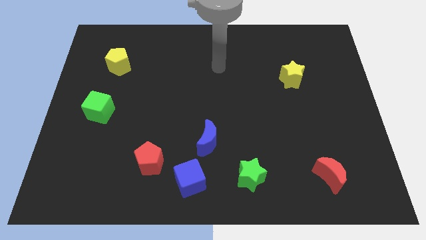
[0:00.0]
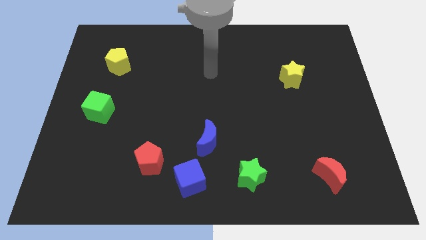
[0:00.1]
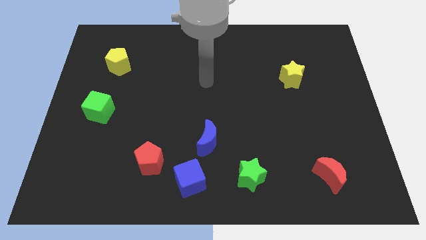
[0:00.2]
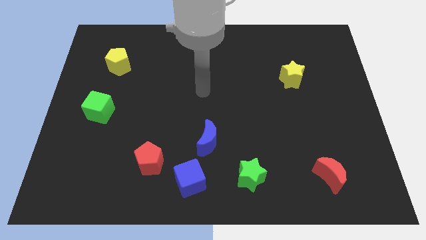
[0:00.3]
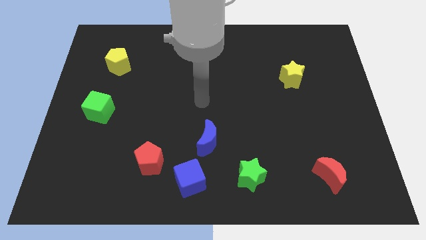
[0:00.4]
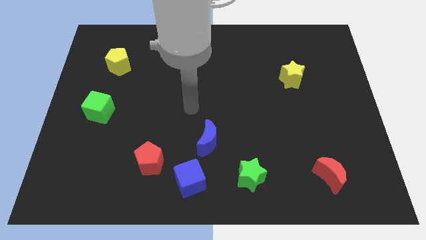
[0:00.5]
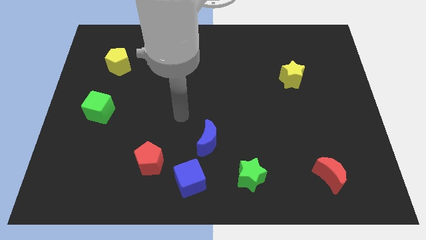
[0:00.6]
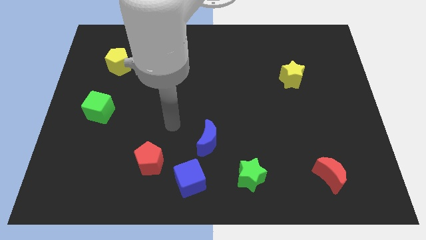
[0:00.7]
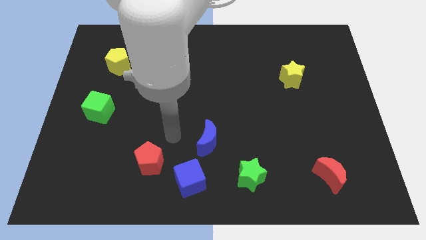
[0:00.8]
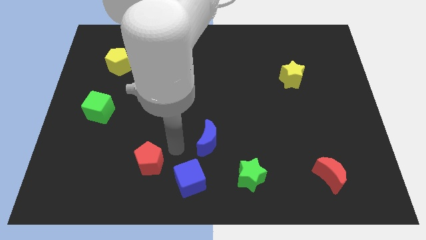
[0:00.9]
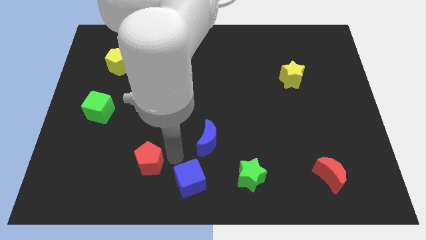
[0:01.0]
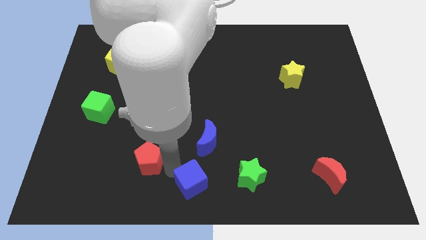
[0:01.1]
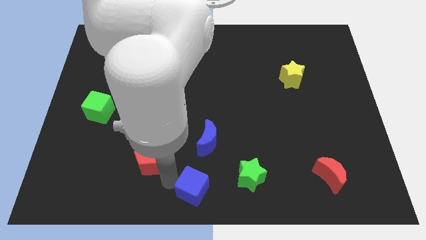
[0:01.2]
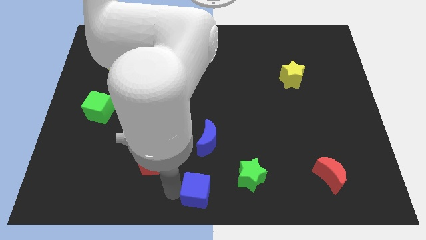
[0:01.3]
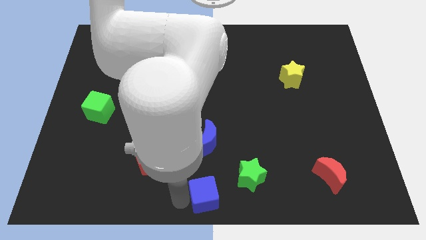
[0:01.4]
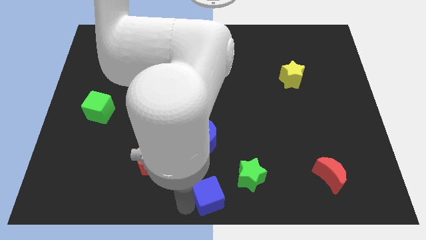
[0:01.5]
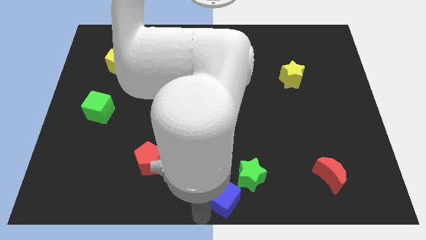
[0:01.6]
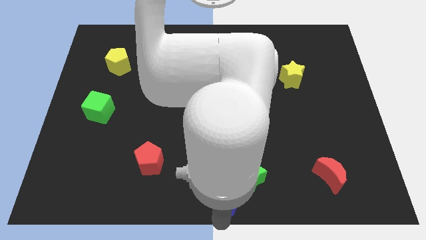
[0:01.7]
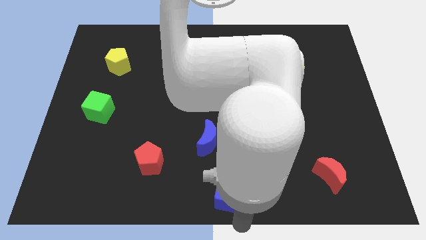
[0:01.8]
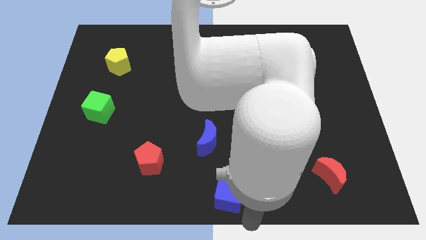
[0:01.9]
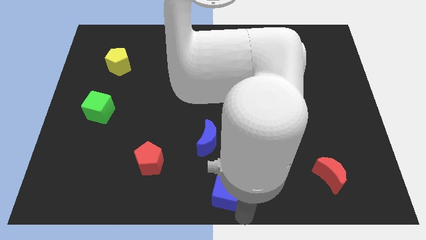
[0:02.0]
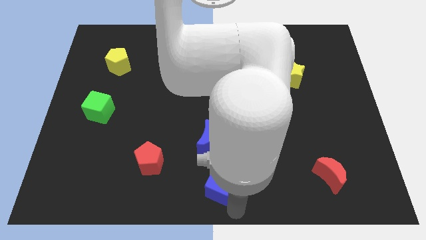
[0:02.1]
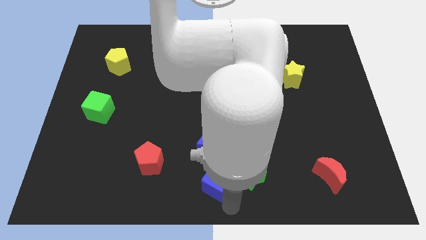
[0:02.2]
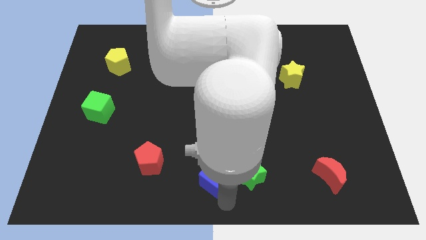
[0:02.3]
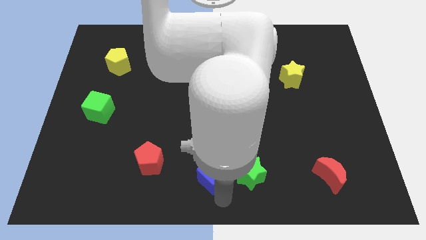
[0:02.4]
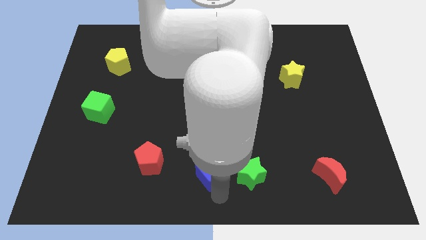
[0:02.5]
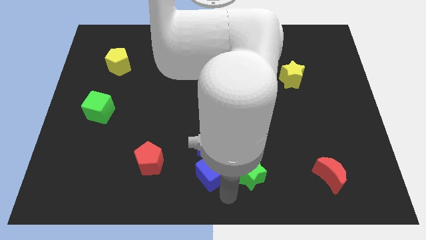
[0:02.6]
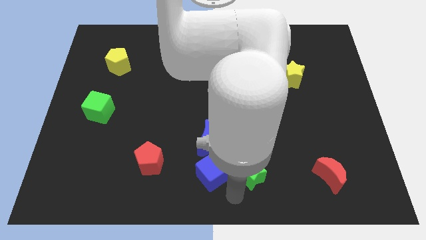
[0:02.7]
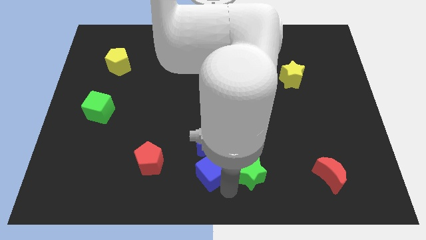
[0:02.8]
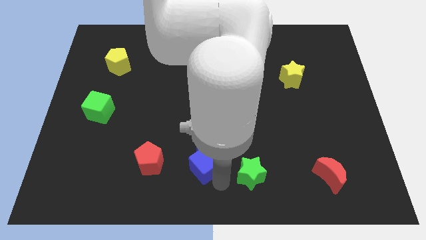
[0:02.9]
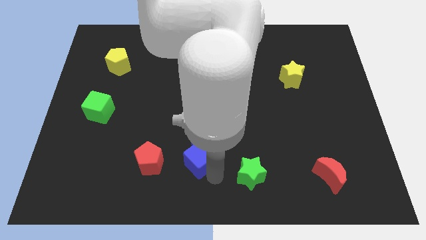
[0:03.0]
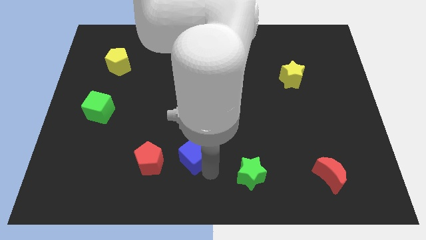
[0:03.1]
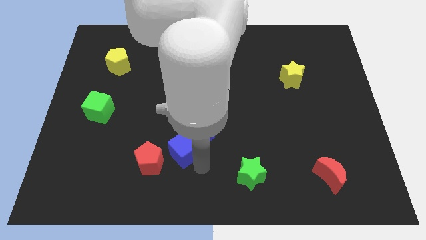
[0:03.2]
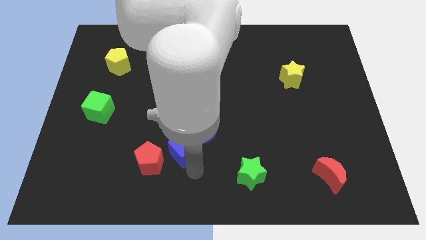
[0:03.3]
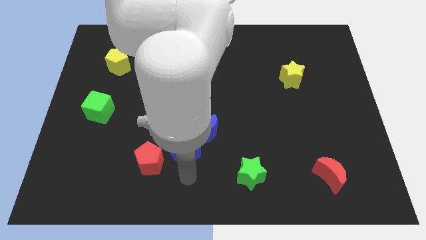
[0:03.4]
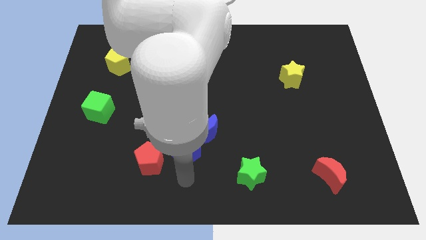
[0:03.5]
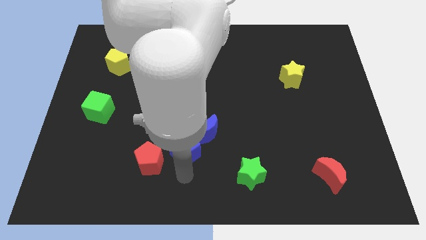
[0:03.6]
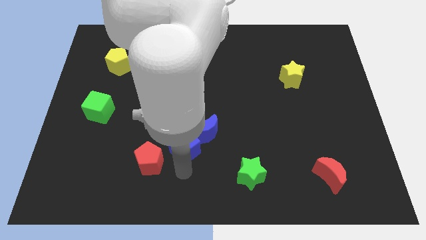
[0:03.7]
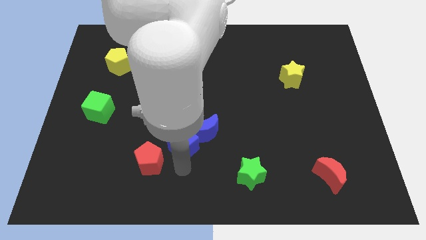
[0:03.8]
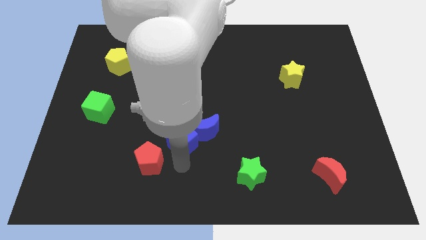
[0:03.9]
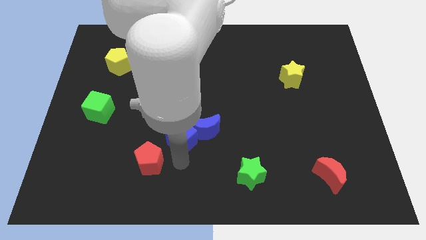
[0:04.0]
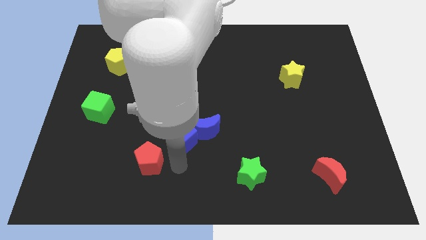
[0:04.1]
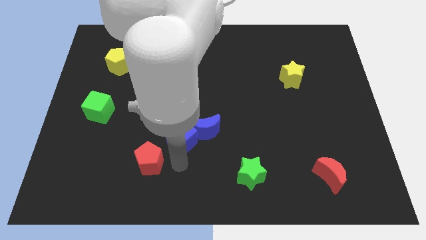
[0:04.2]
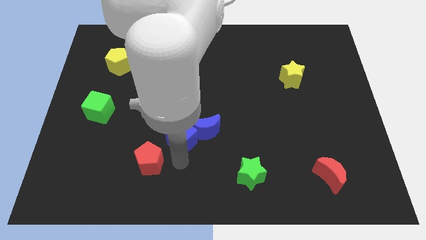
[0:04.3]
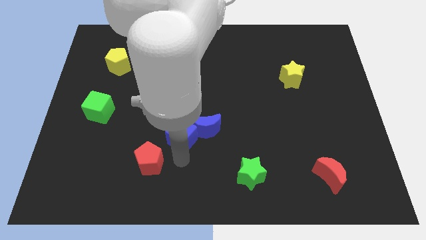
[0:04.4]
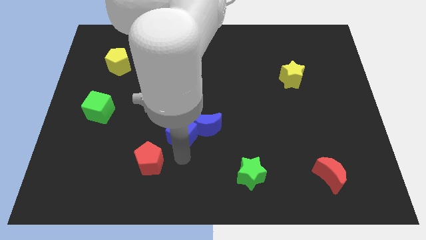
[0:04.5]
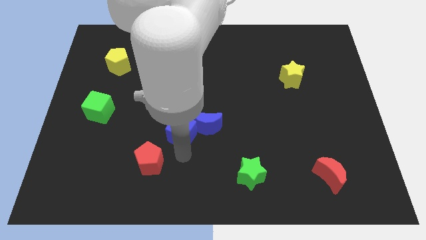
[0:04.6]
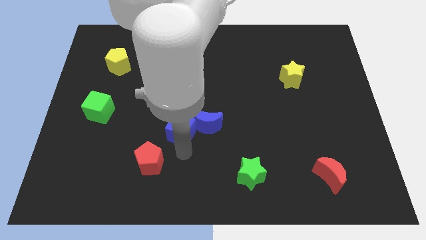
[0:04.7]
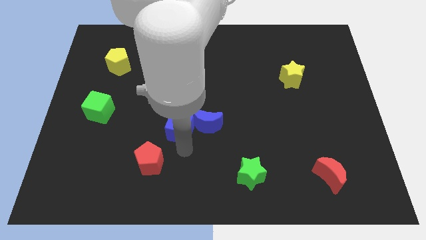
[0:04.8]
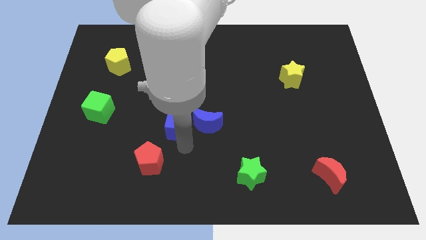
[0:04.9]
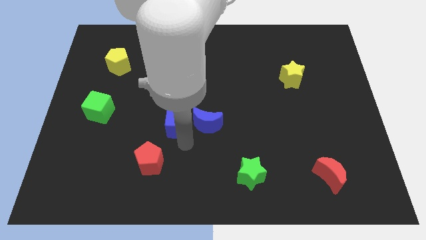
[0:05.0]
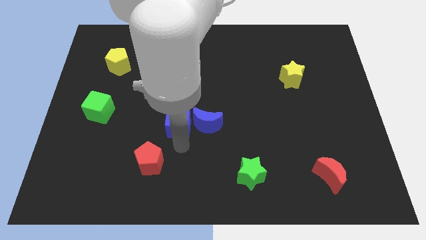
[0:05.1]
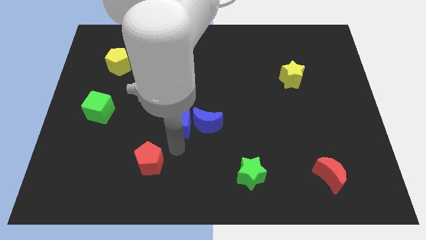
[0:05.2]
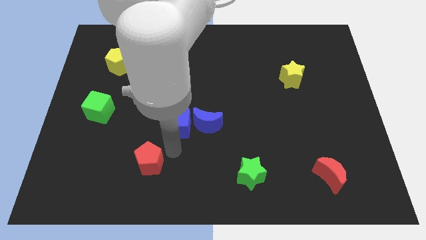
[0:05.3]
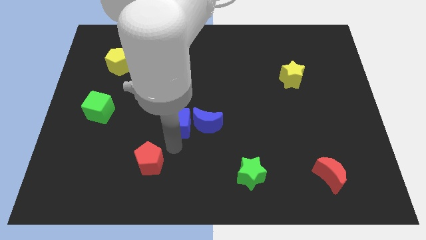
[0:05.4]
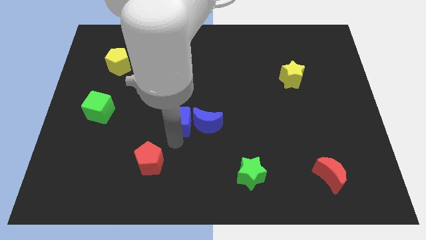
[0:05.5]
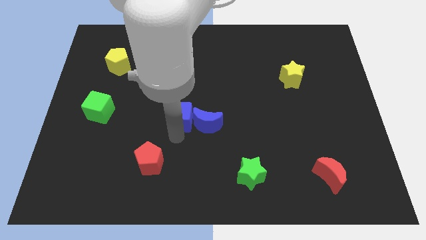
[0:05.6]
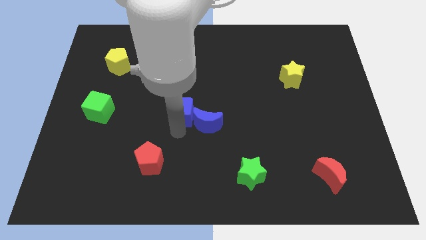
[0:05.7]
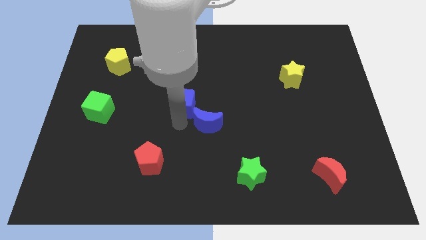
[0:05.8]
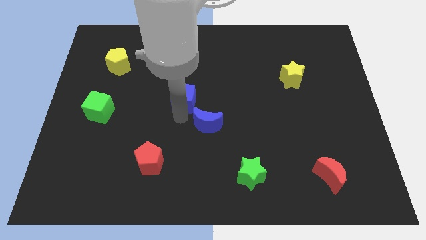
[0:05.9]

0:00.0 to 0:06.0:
slide the blue cube up

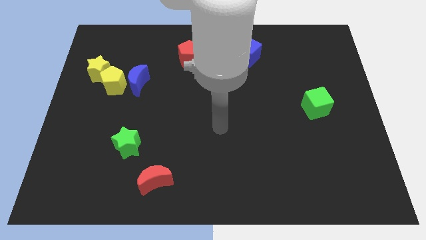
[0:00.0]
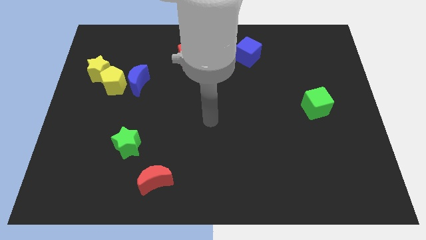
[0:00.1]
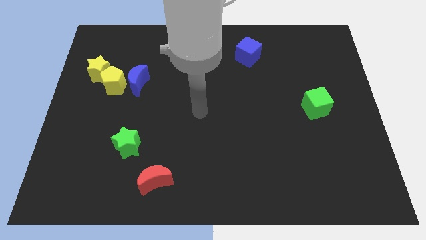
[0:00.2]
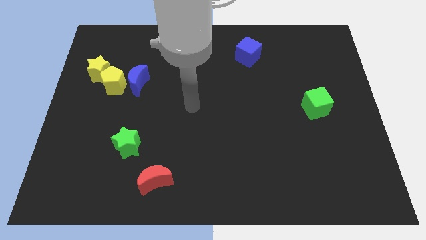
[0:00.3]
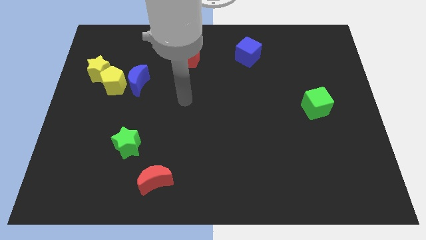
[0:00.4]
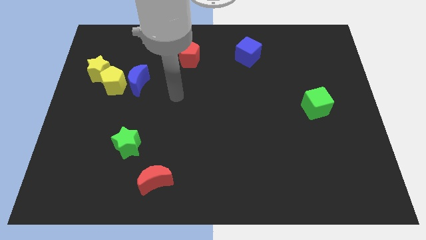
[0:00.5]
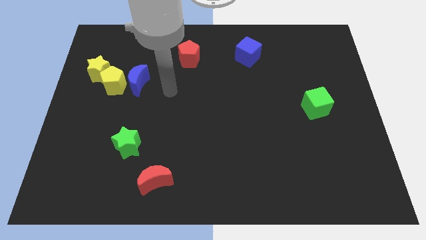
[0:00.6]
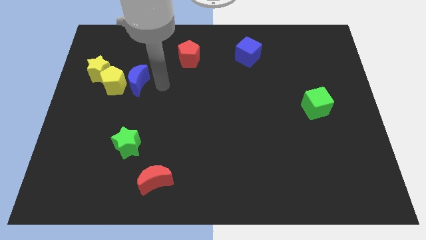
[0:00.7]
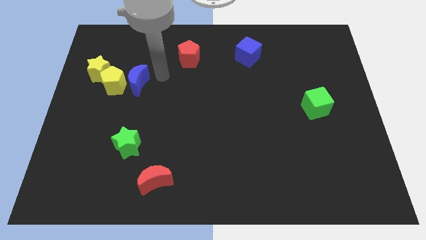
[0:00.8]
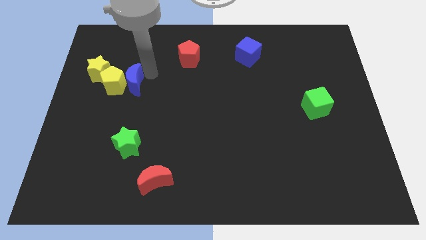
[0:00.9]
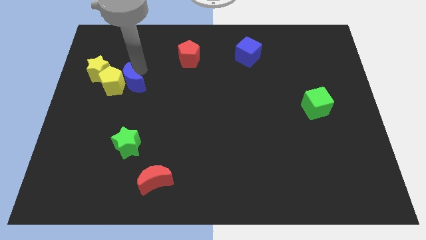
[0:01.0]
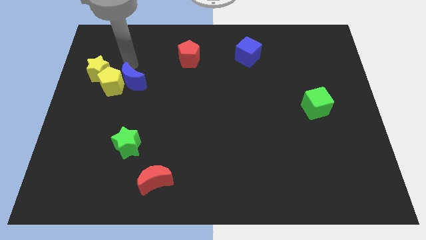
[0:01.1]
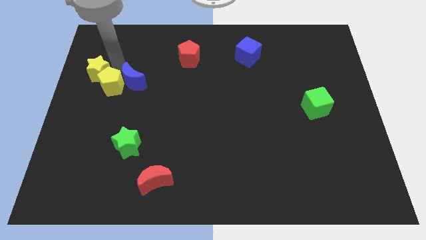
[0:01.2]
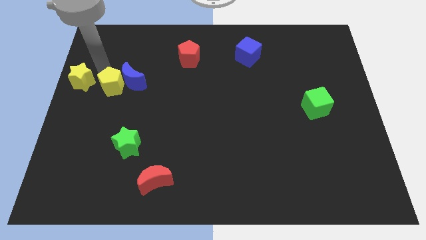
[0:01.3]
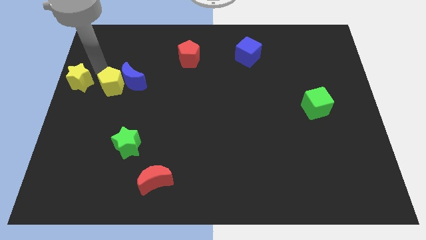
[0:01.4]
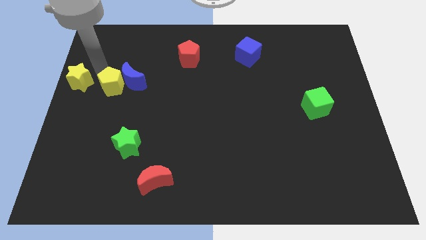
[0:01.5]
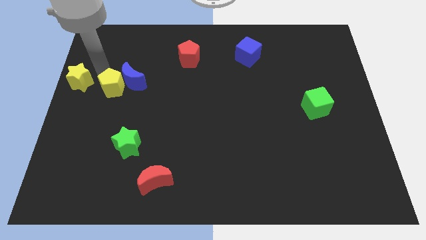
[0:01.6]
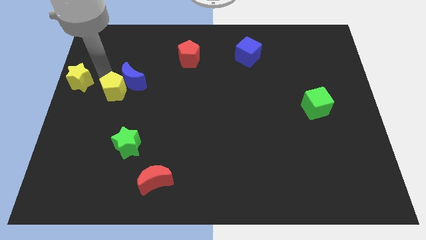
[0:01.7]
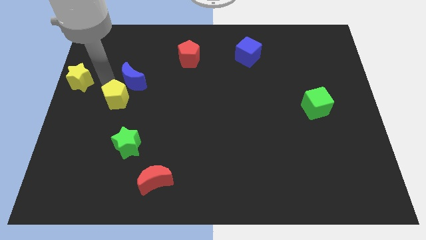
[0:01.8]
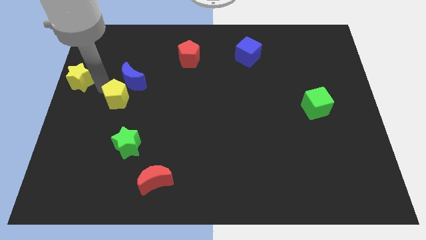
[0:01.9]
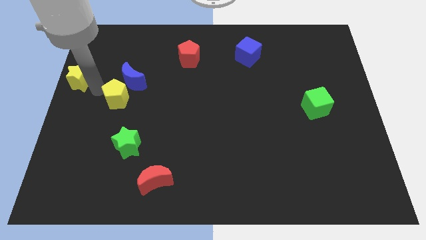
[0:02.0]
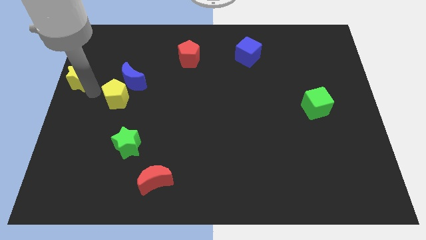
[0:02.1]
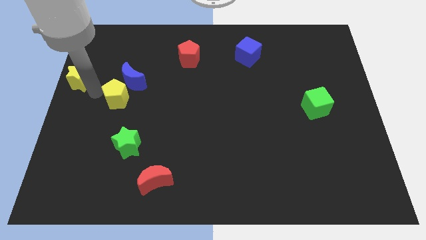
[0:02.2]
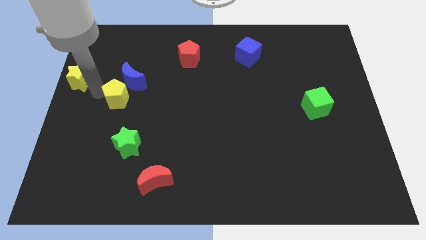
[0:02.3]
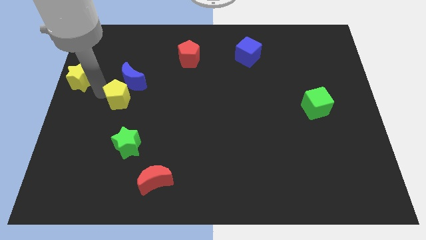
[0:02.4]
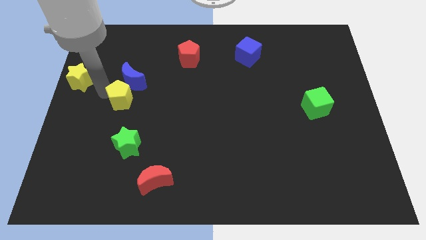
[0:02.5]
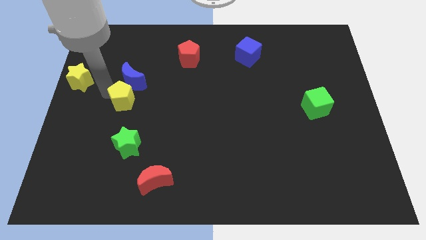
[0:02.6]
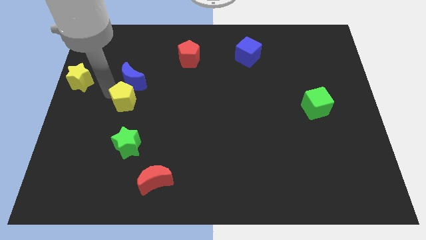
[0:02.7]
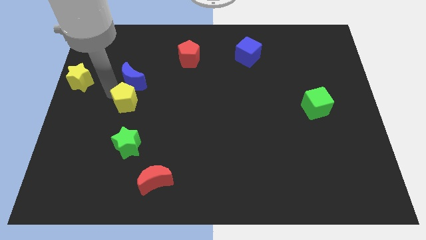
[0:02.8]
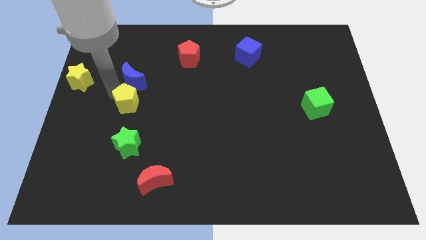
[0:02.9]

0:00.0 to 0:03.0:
slightly push the yellow pentagon downwards and to the right
